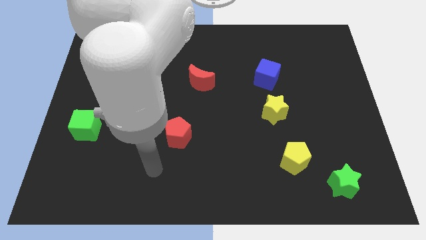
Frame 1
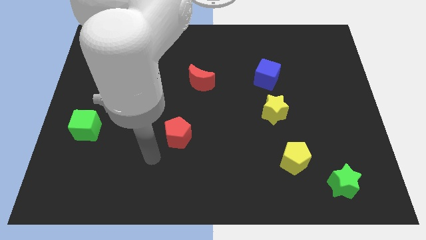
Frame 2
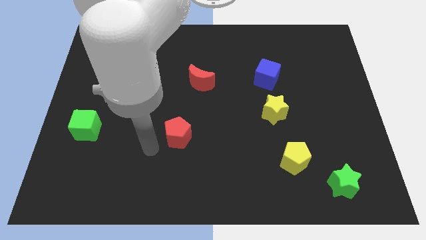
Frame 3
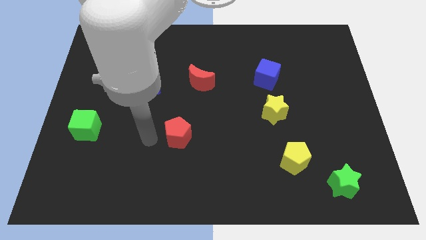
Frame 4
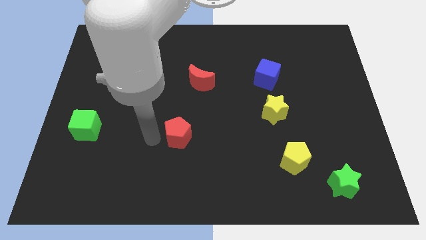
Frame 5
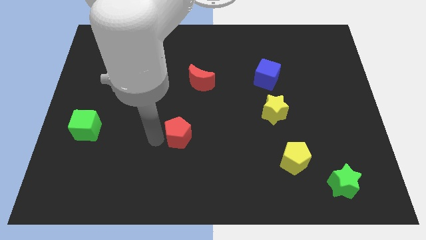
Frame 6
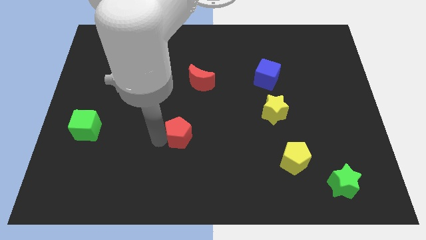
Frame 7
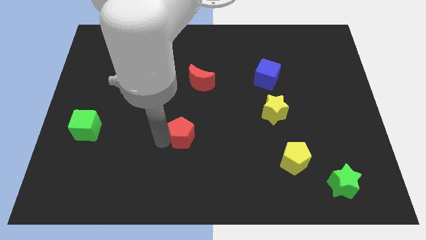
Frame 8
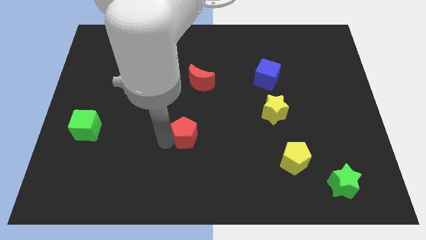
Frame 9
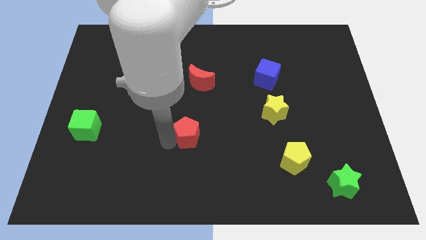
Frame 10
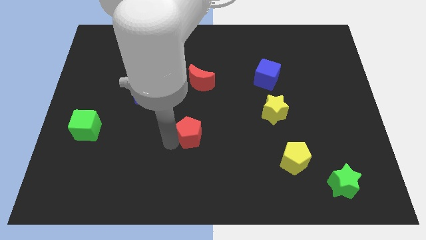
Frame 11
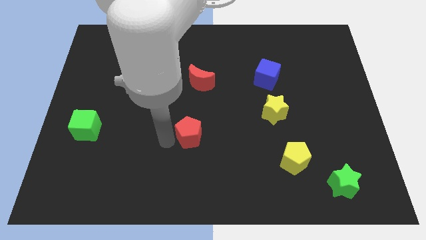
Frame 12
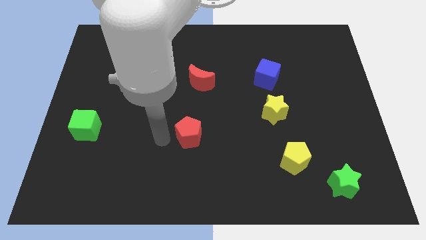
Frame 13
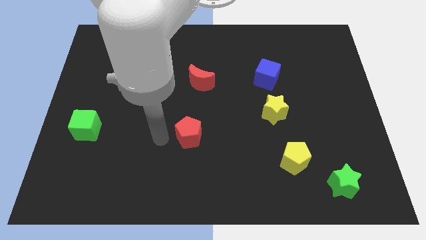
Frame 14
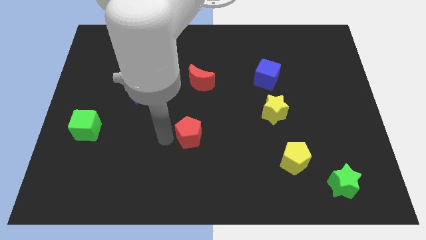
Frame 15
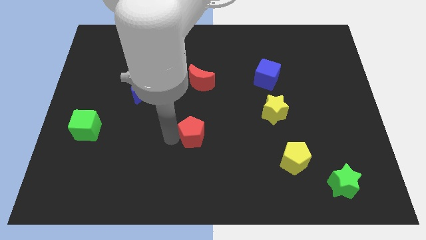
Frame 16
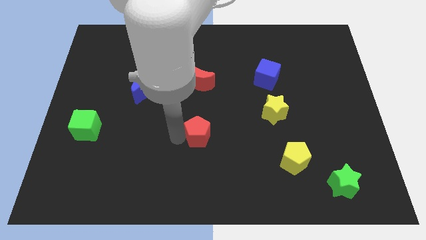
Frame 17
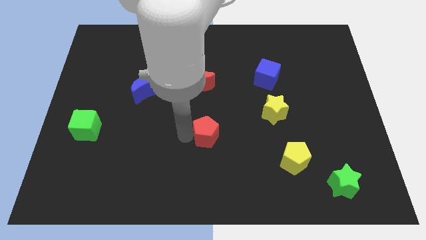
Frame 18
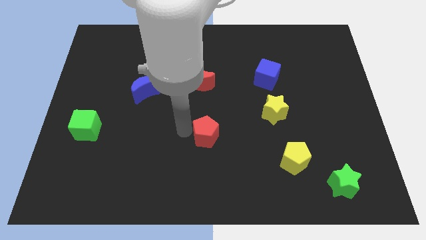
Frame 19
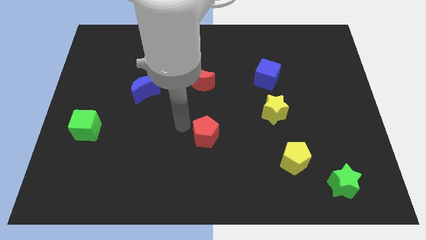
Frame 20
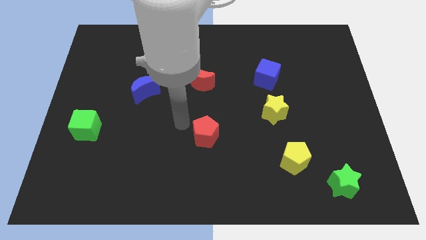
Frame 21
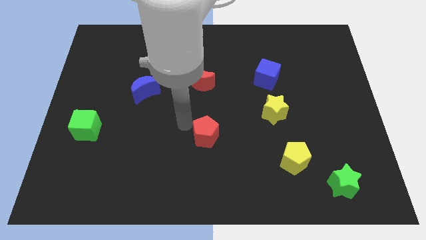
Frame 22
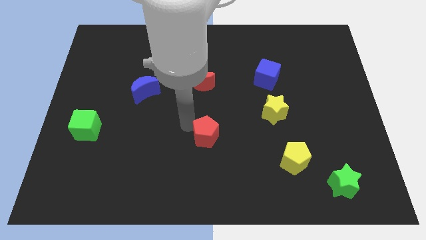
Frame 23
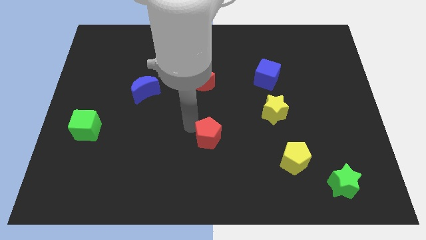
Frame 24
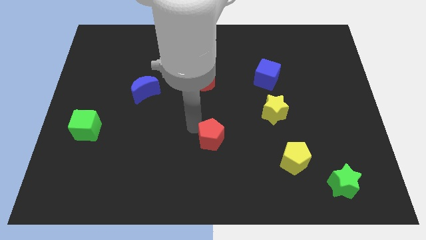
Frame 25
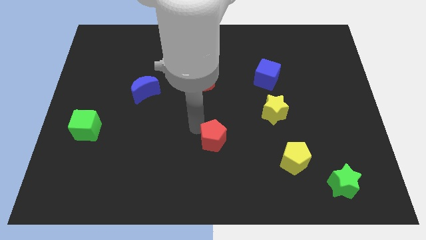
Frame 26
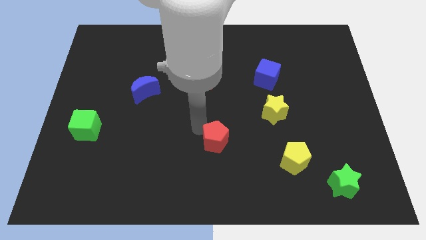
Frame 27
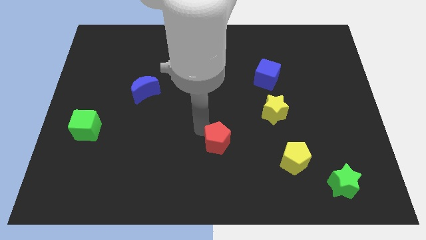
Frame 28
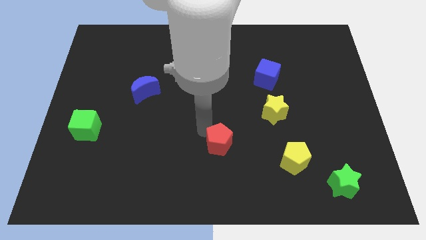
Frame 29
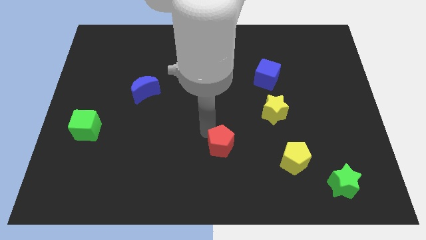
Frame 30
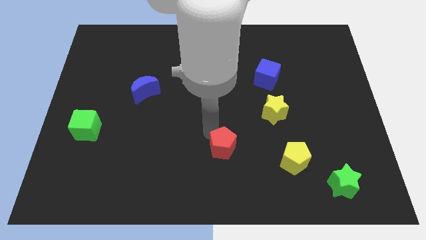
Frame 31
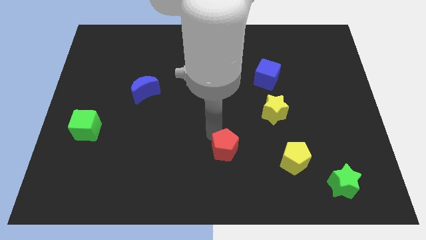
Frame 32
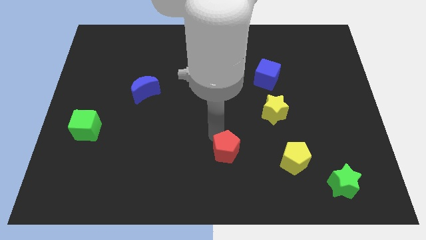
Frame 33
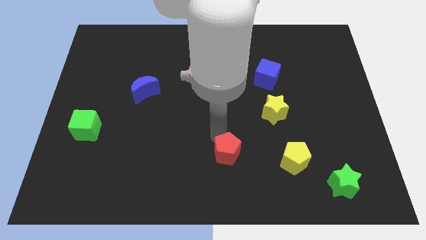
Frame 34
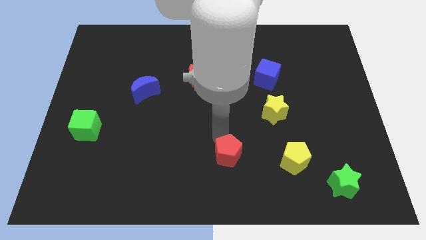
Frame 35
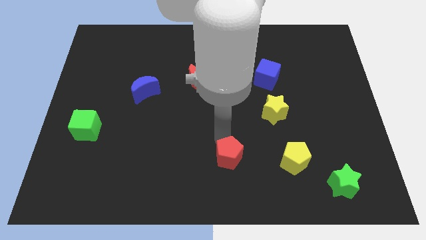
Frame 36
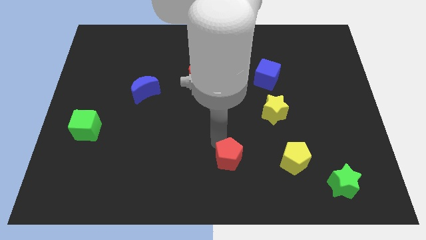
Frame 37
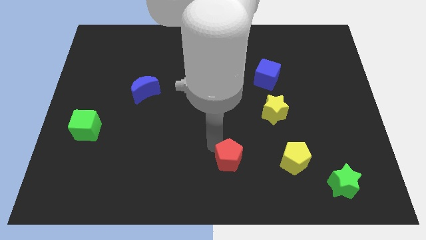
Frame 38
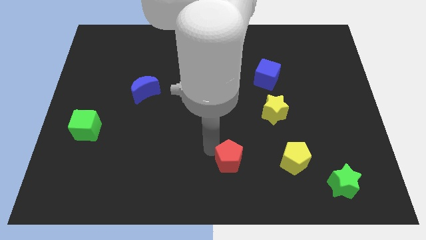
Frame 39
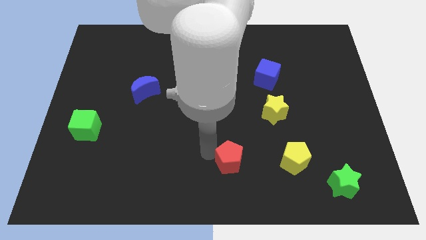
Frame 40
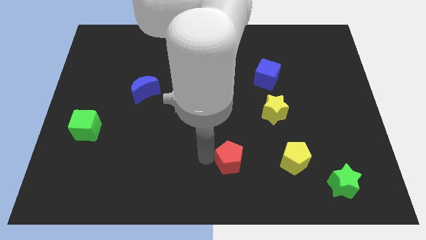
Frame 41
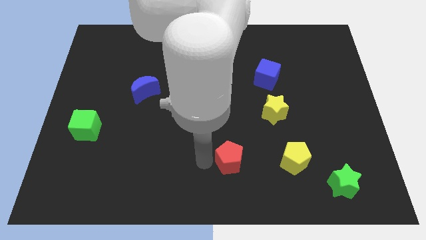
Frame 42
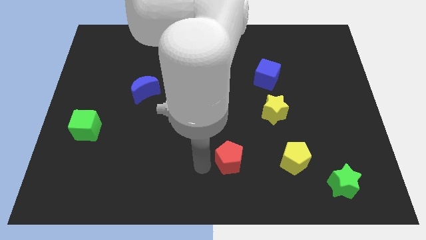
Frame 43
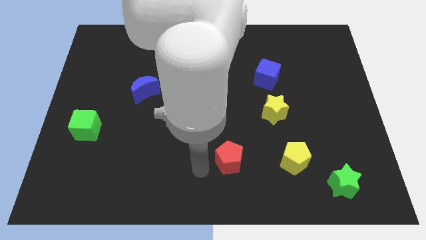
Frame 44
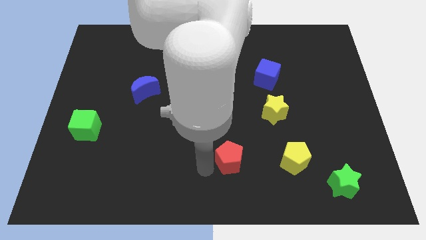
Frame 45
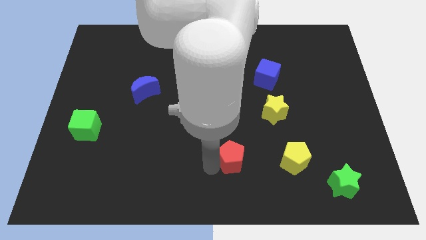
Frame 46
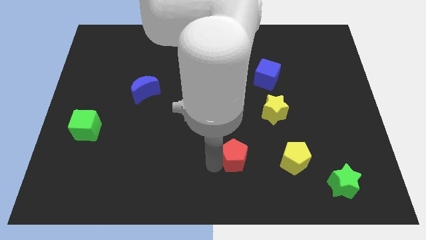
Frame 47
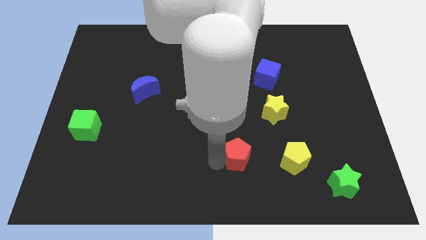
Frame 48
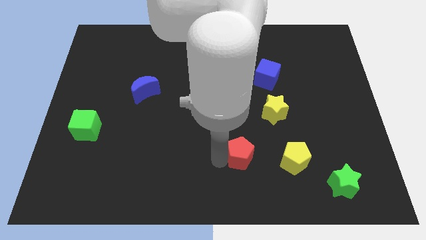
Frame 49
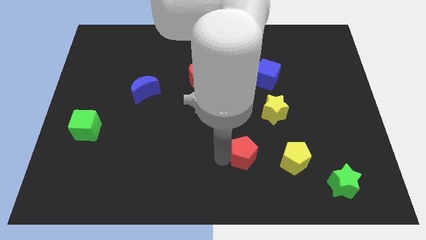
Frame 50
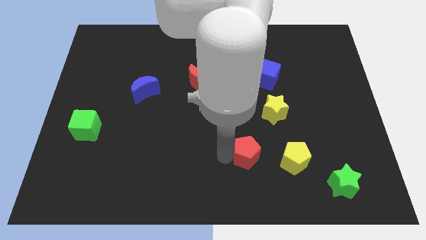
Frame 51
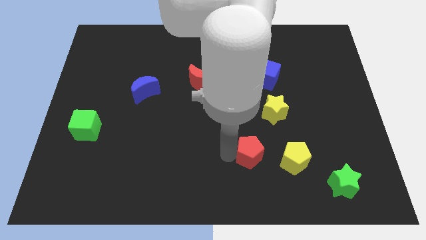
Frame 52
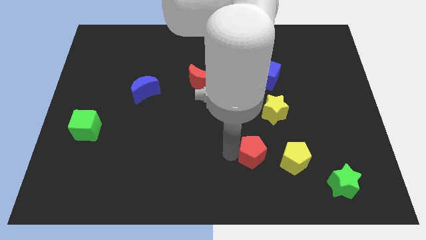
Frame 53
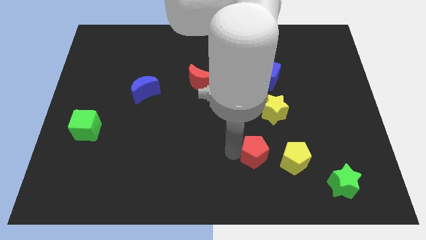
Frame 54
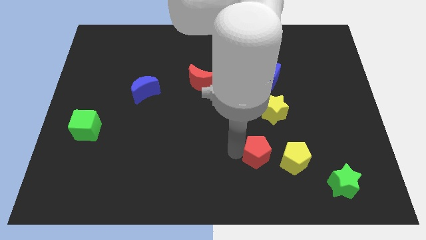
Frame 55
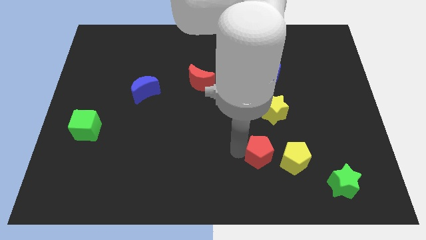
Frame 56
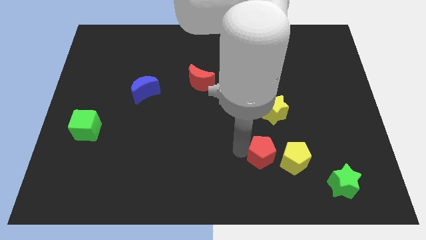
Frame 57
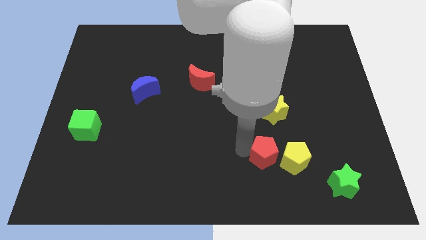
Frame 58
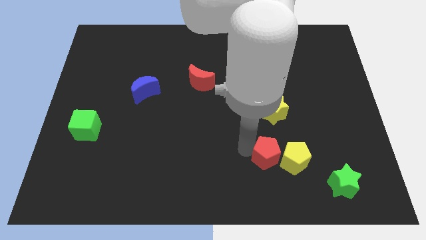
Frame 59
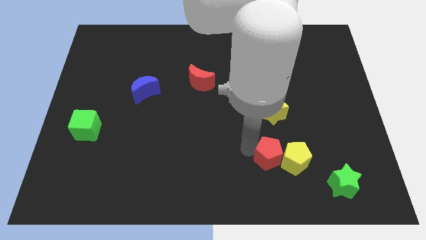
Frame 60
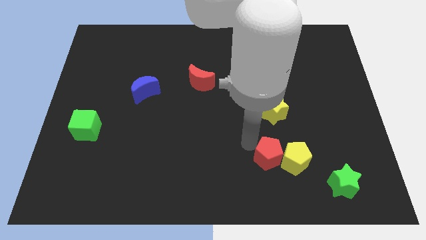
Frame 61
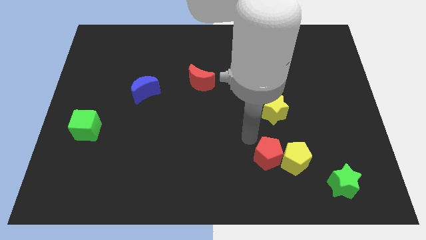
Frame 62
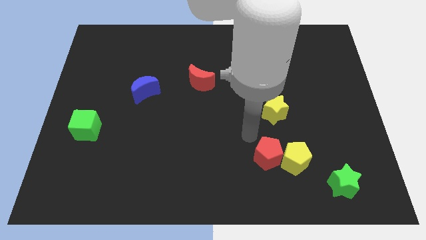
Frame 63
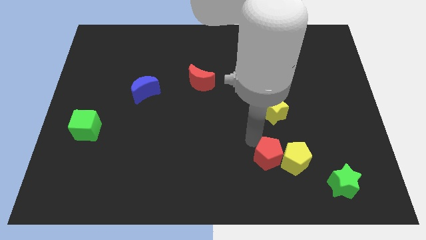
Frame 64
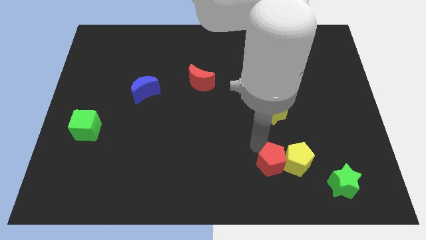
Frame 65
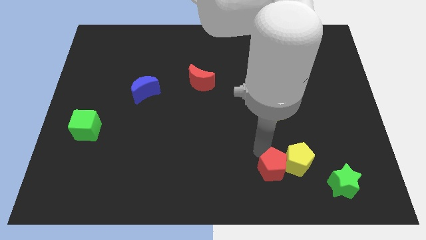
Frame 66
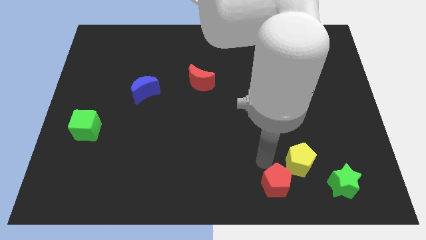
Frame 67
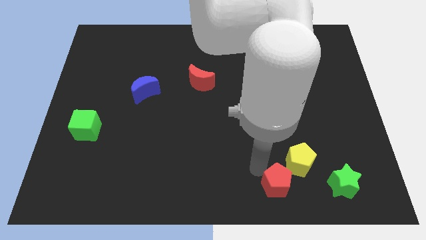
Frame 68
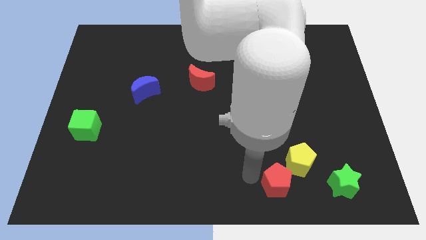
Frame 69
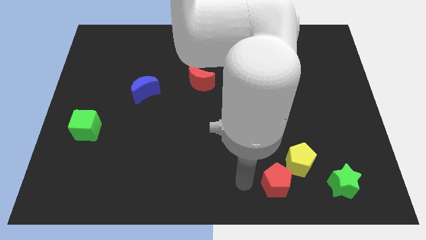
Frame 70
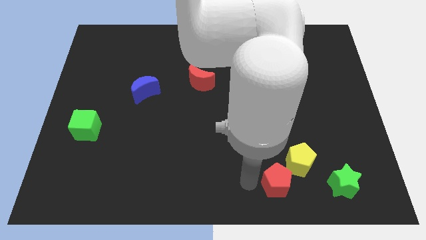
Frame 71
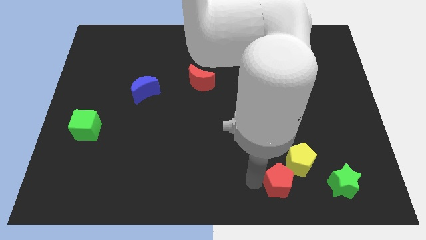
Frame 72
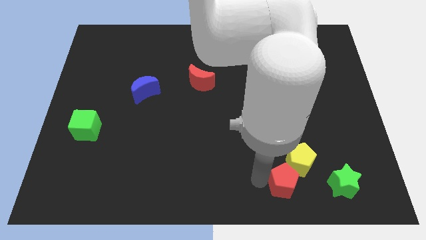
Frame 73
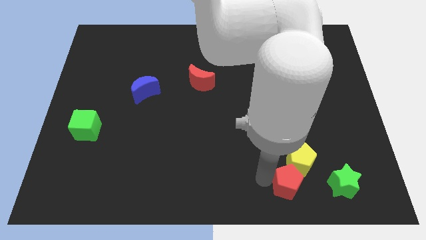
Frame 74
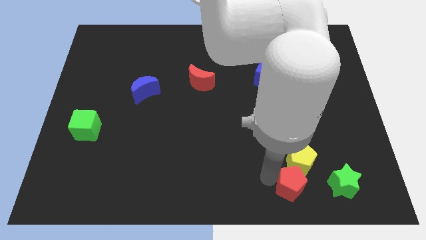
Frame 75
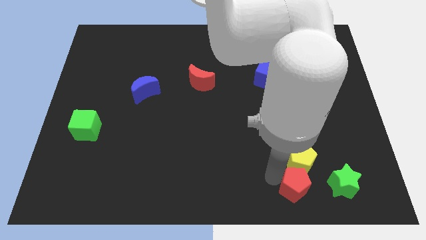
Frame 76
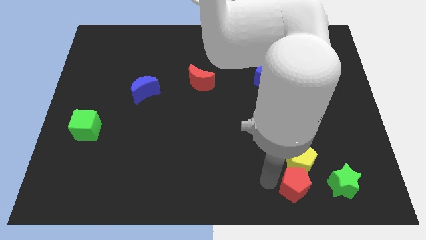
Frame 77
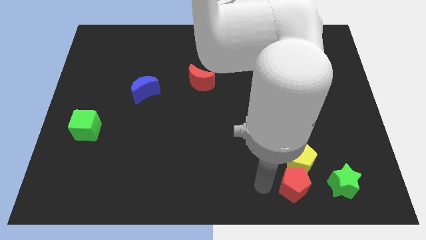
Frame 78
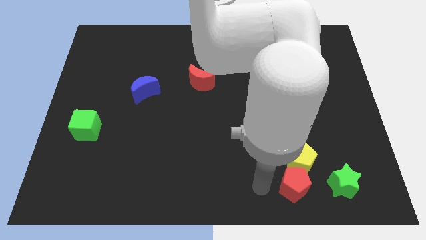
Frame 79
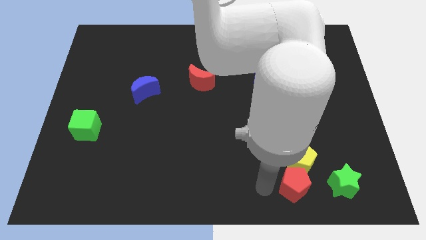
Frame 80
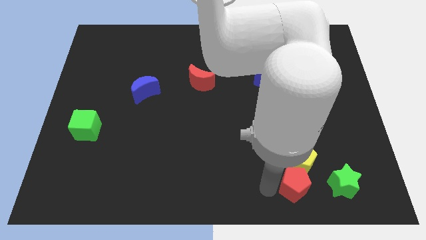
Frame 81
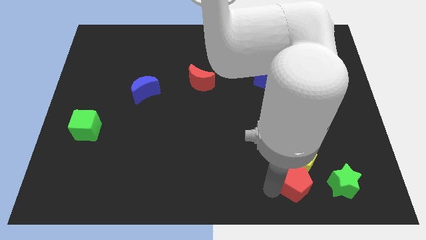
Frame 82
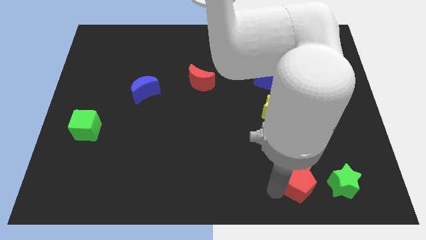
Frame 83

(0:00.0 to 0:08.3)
push the red pentagon to the bottom right of the yellow pentagon
